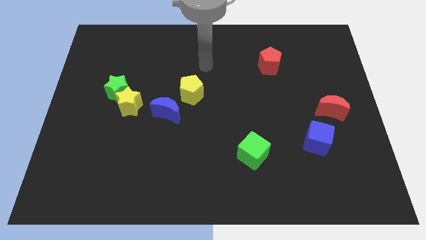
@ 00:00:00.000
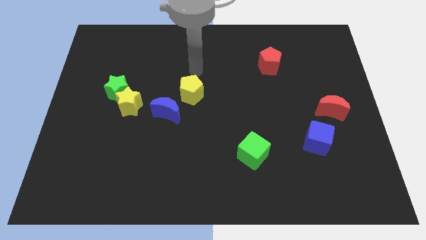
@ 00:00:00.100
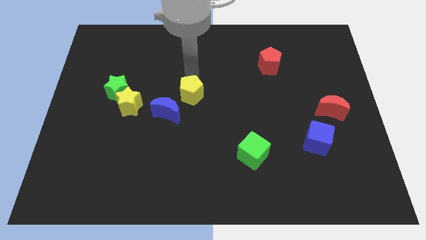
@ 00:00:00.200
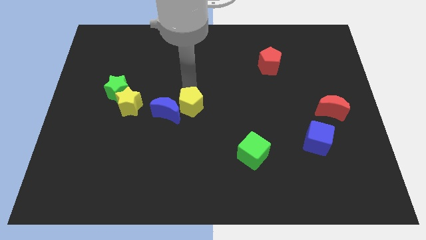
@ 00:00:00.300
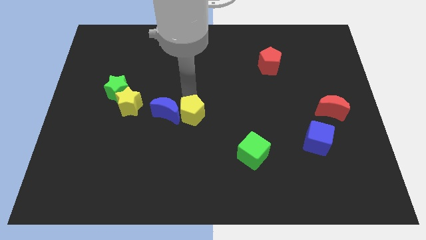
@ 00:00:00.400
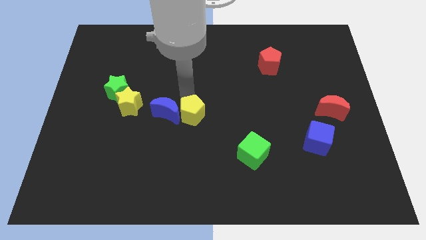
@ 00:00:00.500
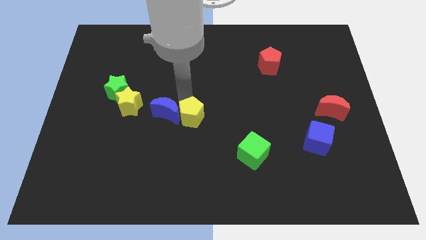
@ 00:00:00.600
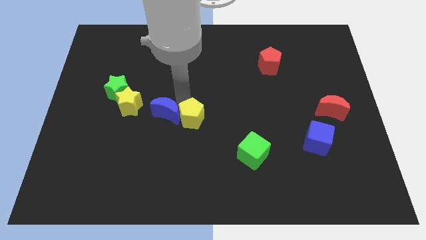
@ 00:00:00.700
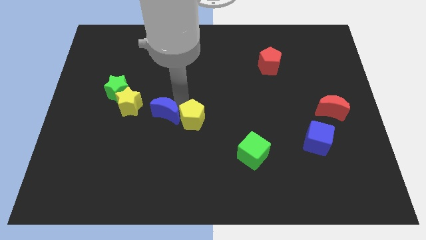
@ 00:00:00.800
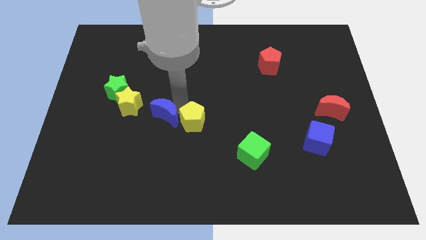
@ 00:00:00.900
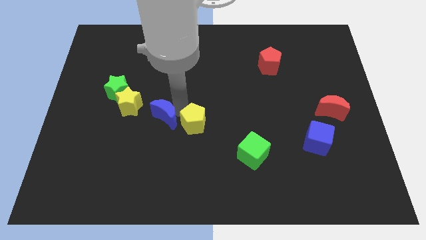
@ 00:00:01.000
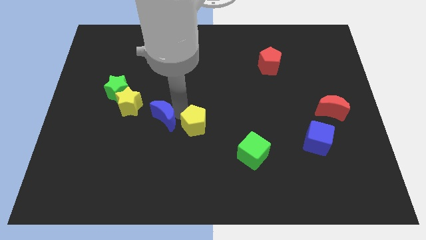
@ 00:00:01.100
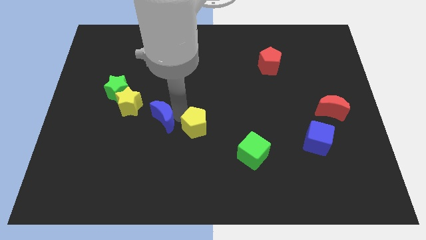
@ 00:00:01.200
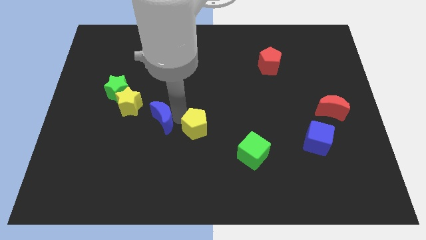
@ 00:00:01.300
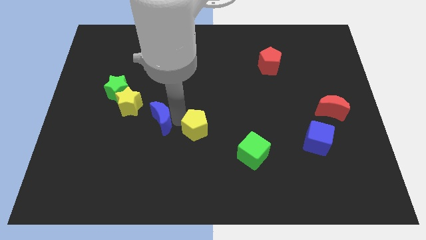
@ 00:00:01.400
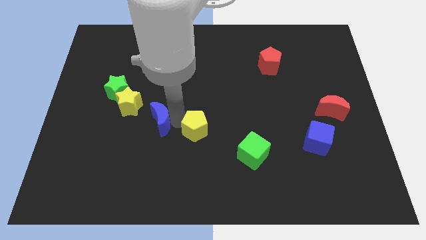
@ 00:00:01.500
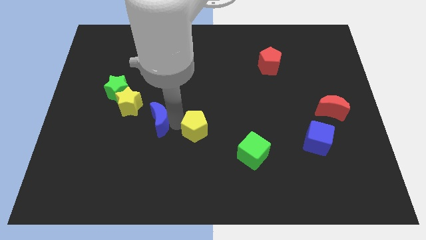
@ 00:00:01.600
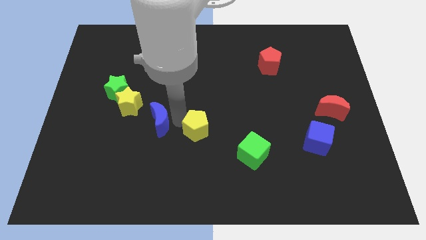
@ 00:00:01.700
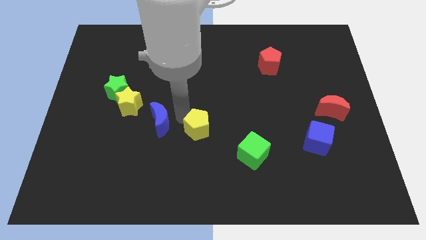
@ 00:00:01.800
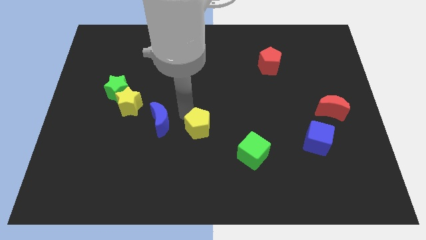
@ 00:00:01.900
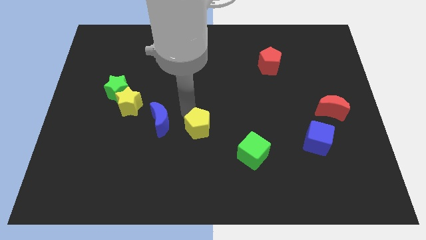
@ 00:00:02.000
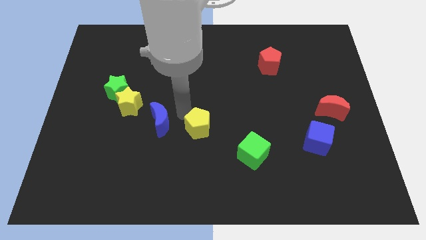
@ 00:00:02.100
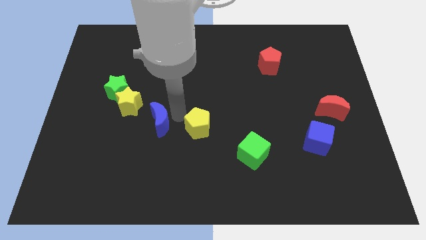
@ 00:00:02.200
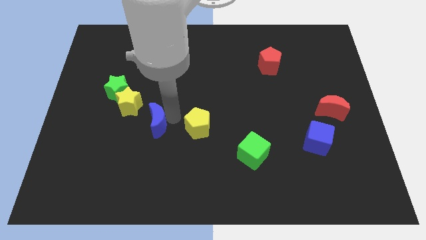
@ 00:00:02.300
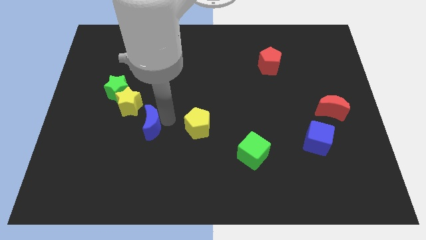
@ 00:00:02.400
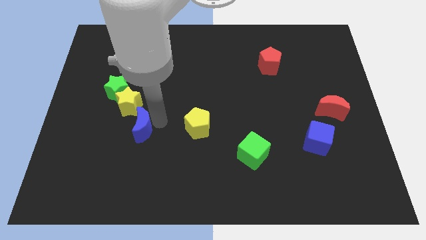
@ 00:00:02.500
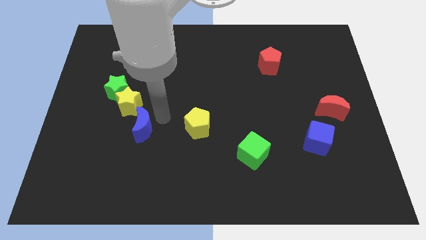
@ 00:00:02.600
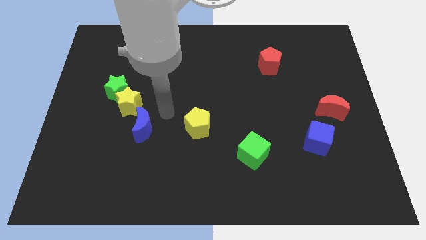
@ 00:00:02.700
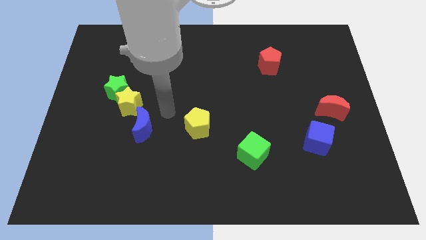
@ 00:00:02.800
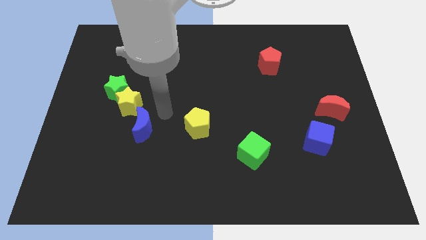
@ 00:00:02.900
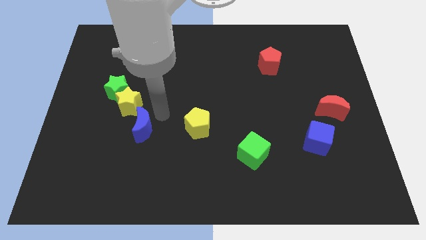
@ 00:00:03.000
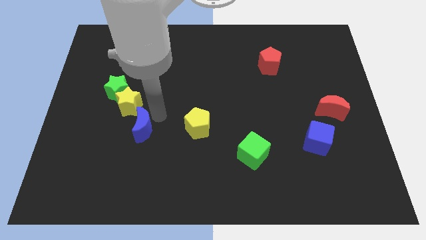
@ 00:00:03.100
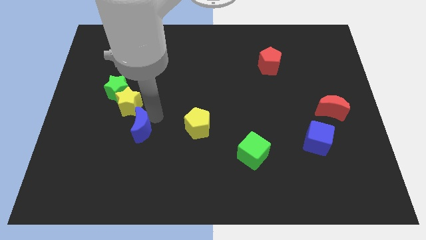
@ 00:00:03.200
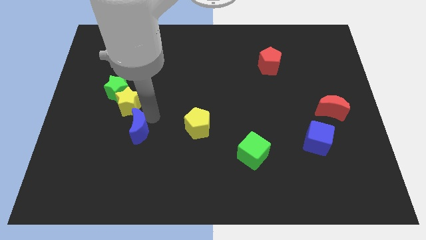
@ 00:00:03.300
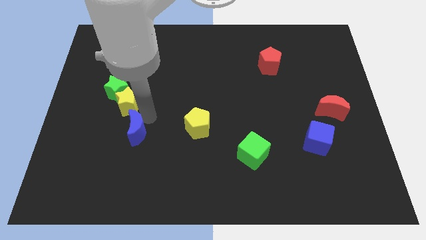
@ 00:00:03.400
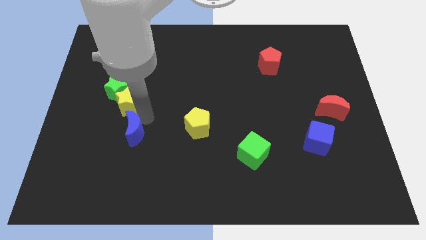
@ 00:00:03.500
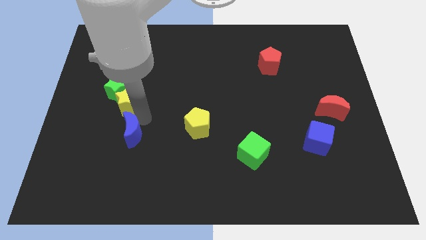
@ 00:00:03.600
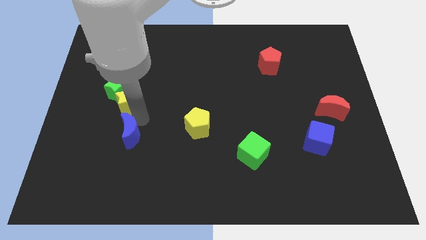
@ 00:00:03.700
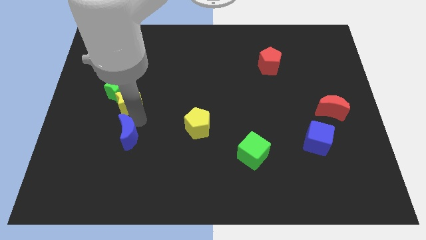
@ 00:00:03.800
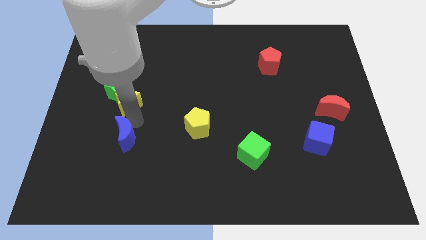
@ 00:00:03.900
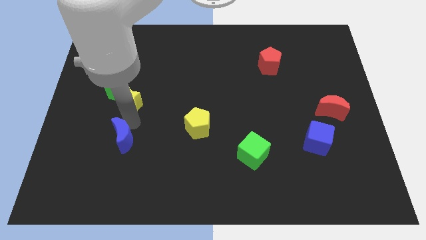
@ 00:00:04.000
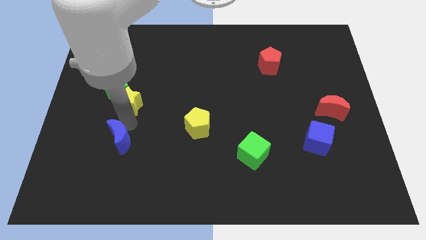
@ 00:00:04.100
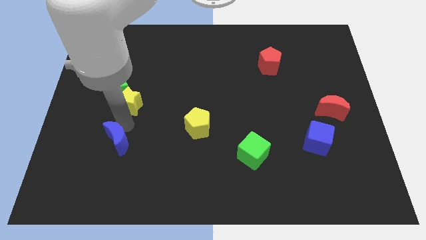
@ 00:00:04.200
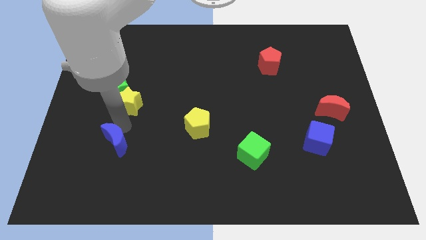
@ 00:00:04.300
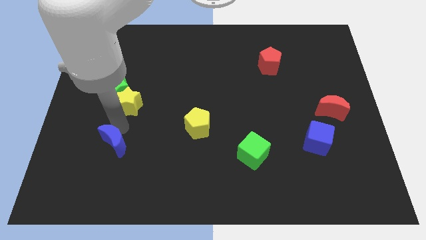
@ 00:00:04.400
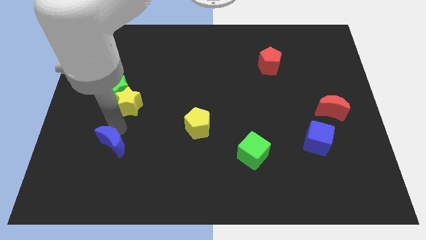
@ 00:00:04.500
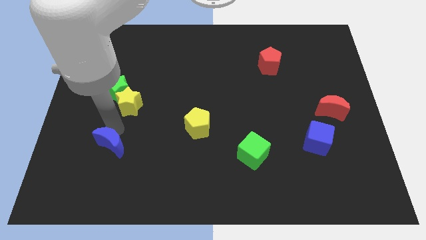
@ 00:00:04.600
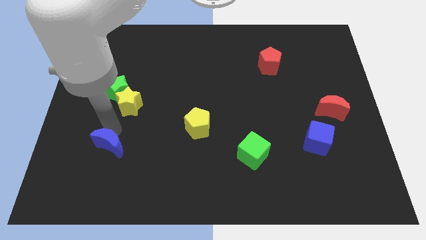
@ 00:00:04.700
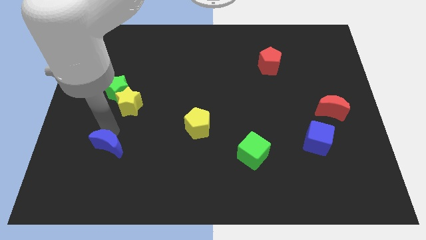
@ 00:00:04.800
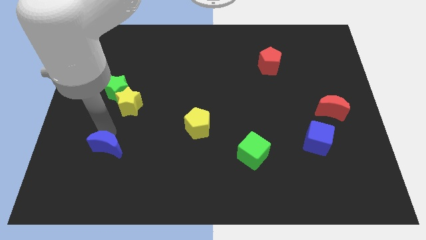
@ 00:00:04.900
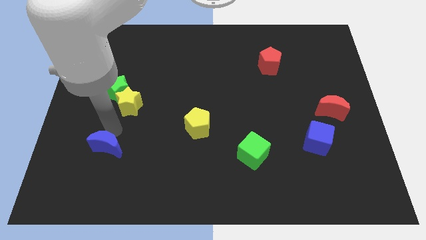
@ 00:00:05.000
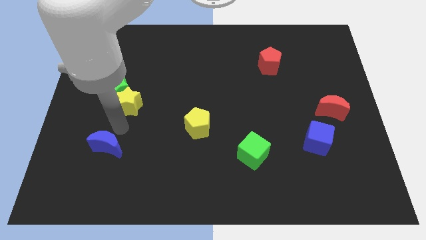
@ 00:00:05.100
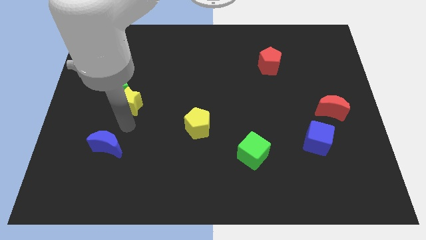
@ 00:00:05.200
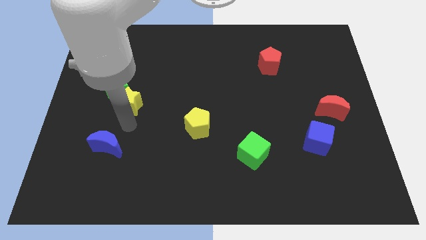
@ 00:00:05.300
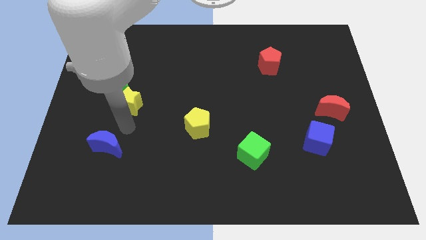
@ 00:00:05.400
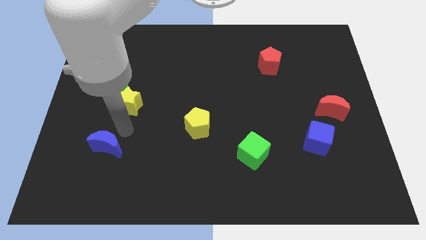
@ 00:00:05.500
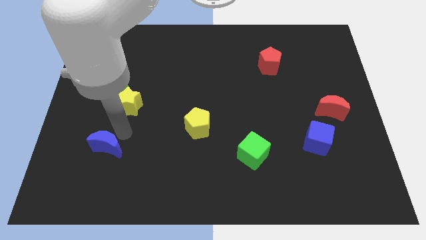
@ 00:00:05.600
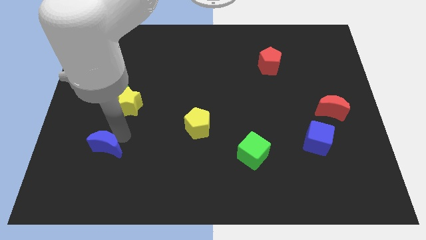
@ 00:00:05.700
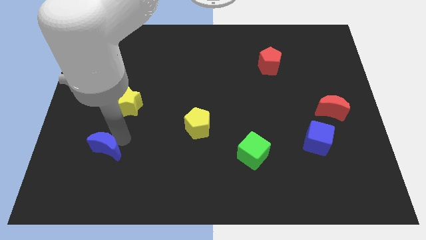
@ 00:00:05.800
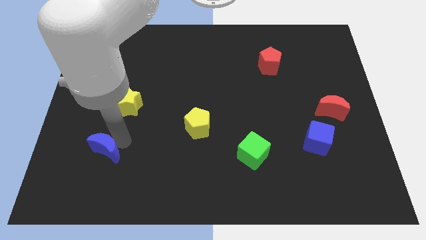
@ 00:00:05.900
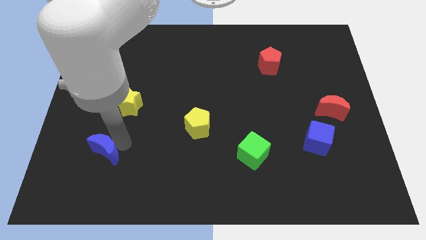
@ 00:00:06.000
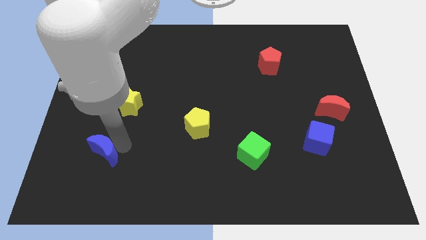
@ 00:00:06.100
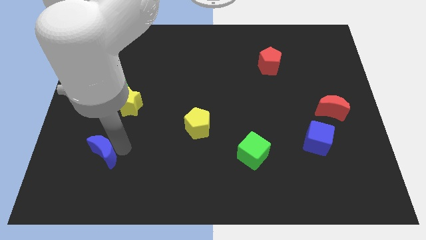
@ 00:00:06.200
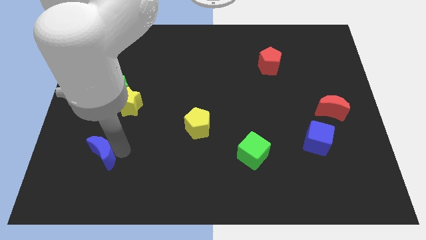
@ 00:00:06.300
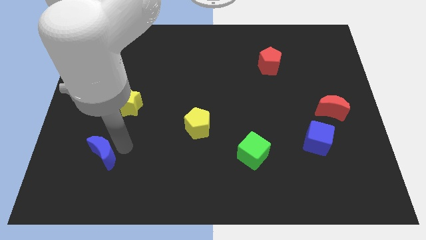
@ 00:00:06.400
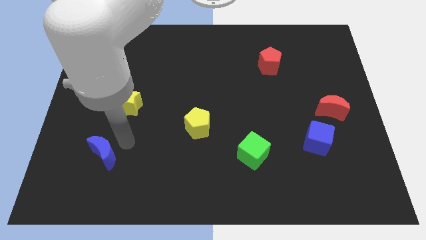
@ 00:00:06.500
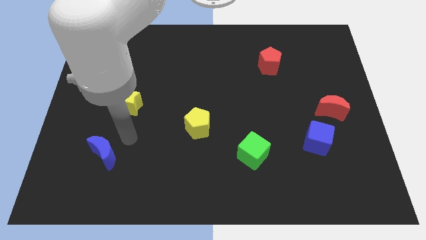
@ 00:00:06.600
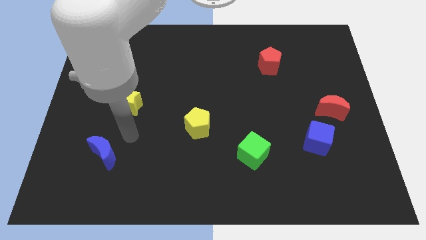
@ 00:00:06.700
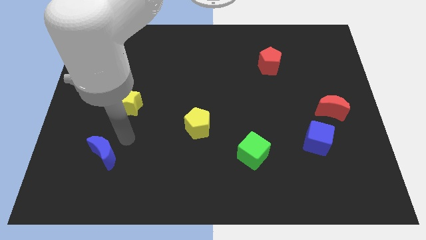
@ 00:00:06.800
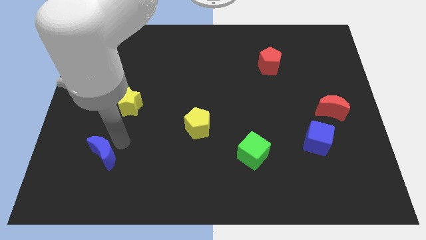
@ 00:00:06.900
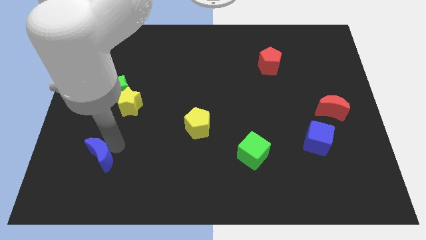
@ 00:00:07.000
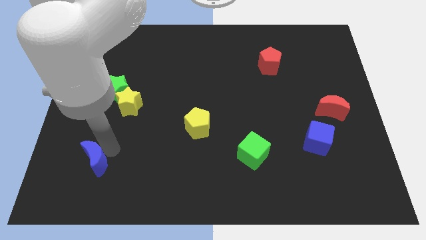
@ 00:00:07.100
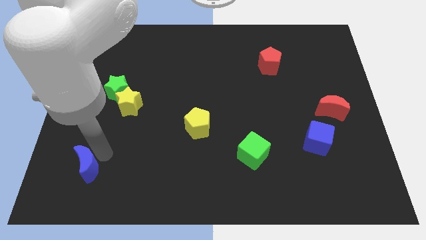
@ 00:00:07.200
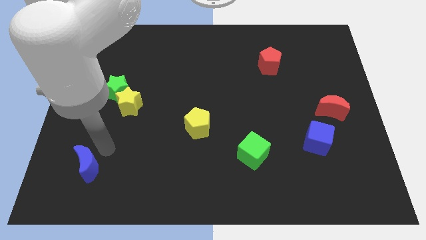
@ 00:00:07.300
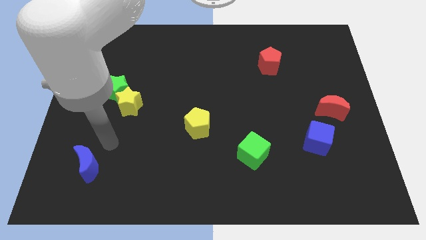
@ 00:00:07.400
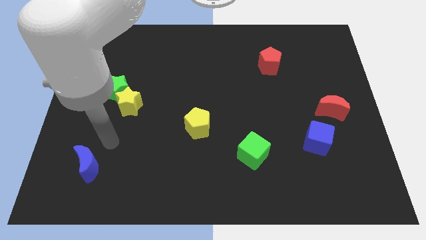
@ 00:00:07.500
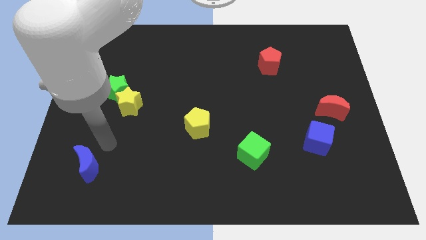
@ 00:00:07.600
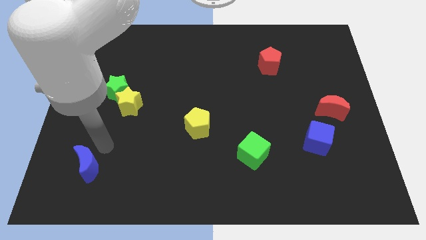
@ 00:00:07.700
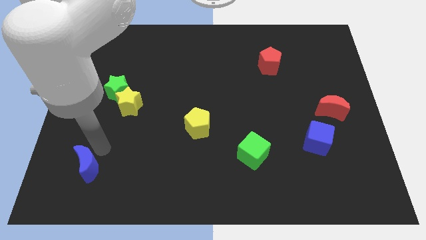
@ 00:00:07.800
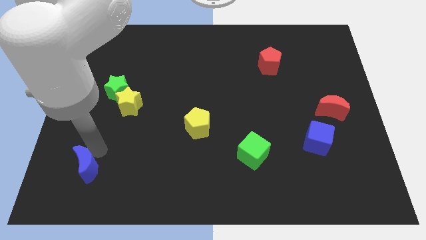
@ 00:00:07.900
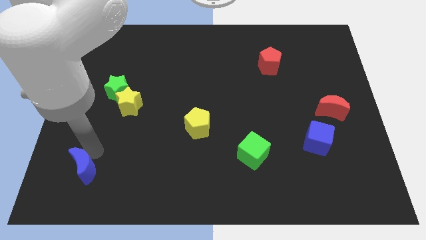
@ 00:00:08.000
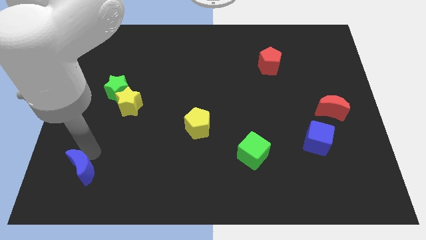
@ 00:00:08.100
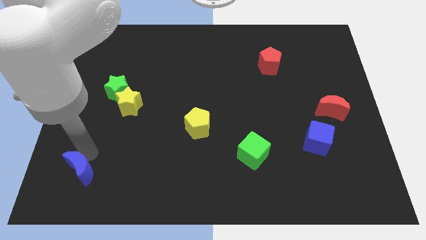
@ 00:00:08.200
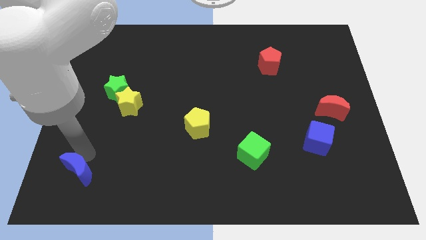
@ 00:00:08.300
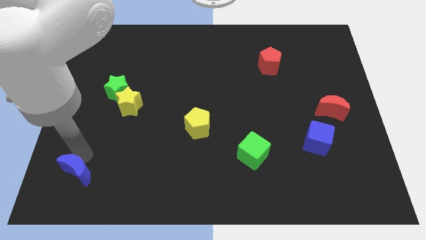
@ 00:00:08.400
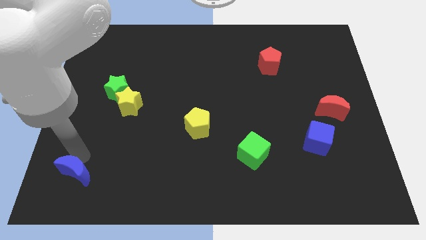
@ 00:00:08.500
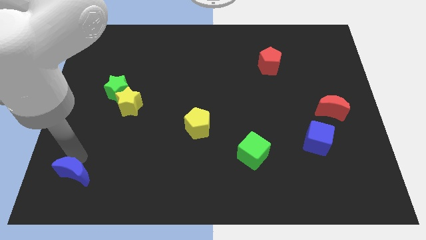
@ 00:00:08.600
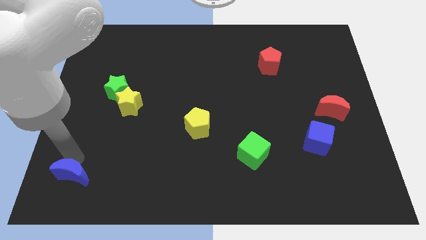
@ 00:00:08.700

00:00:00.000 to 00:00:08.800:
push the blue moon to the bottom left corner
